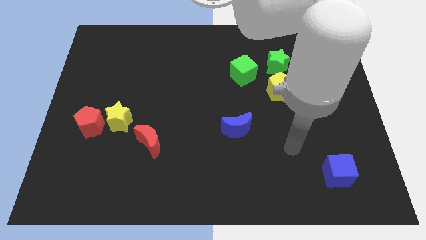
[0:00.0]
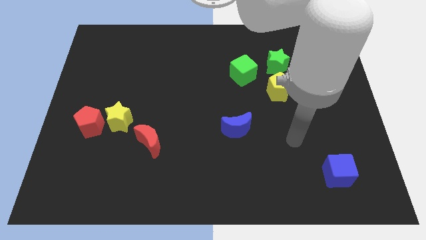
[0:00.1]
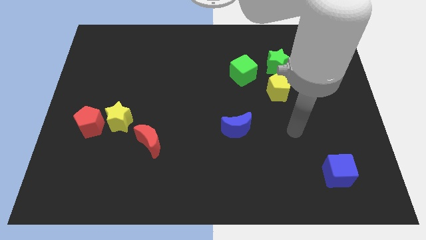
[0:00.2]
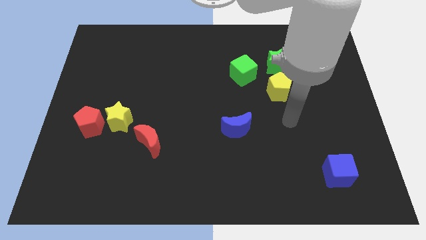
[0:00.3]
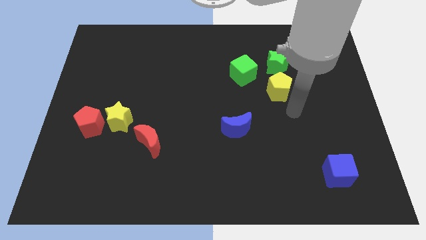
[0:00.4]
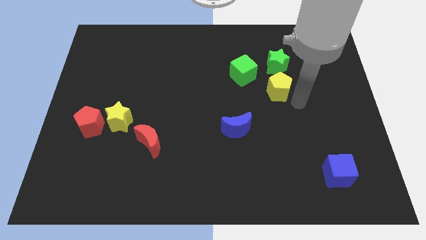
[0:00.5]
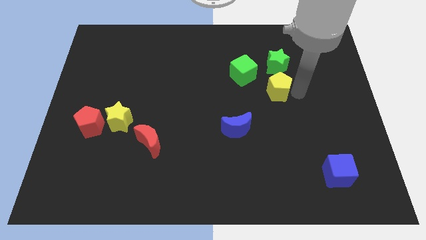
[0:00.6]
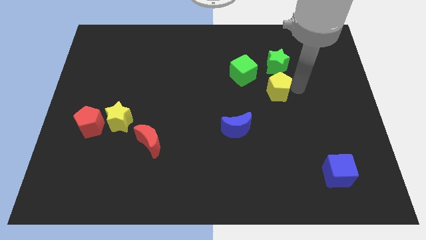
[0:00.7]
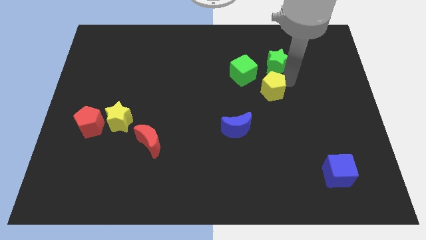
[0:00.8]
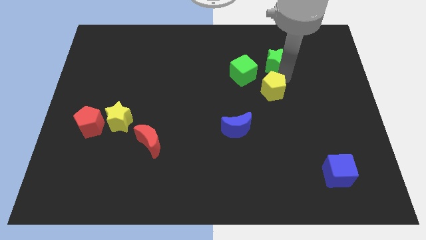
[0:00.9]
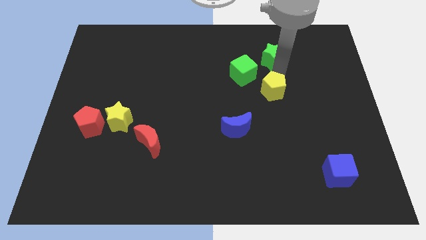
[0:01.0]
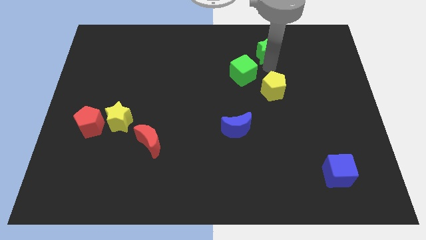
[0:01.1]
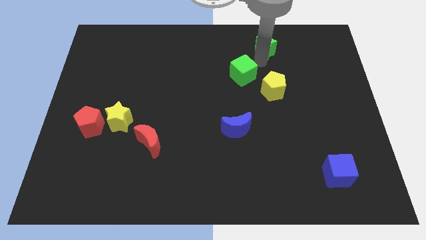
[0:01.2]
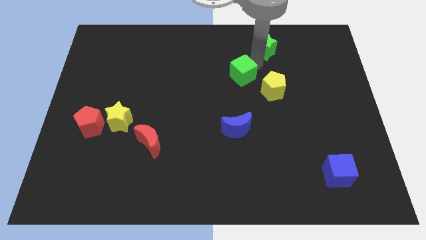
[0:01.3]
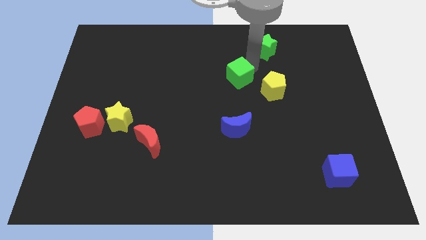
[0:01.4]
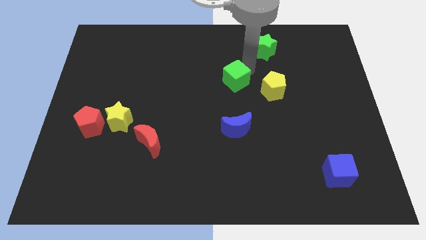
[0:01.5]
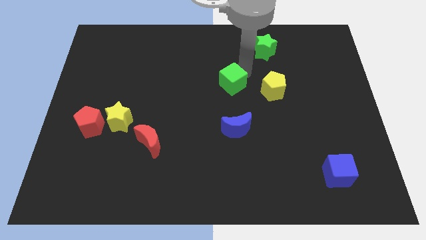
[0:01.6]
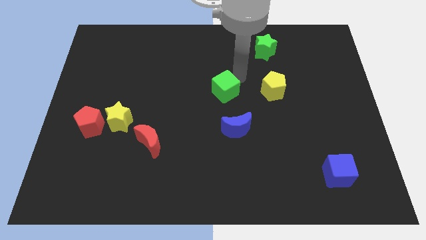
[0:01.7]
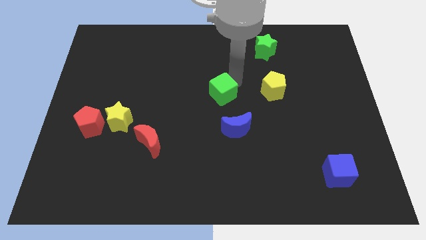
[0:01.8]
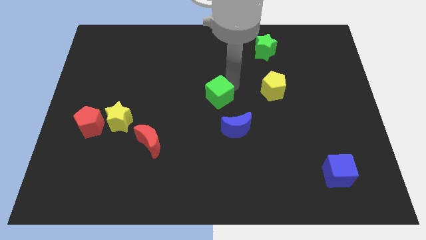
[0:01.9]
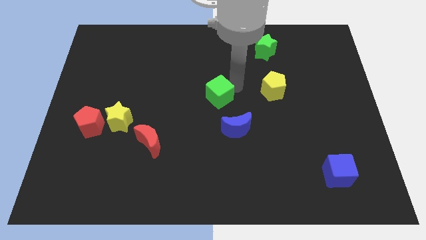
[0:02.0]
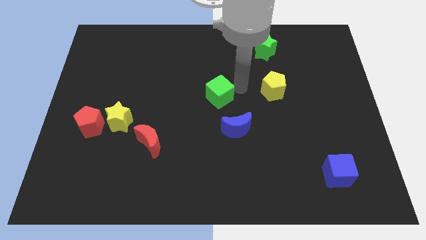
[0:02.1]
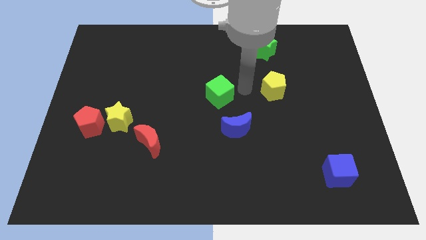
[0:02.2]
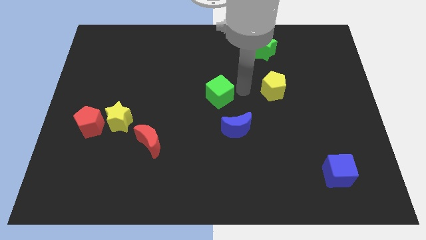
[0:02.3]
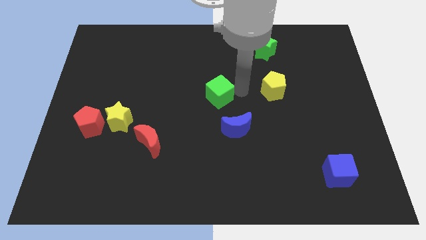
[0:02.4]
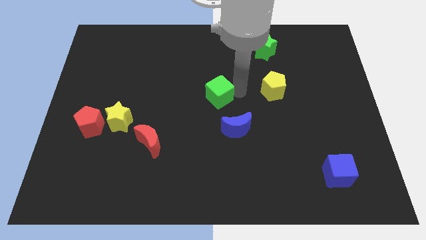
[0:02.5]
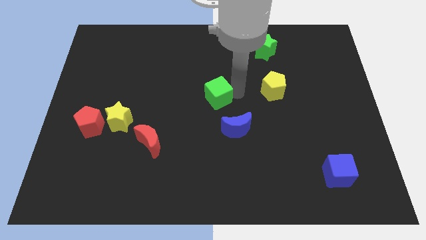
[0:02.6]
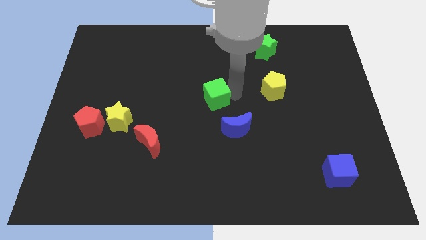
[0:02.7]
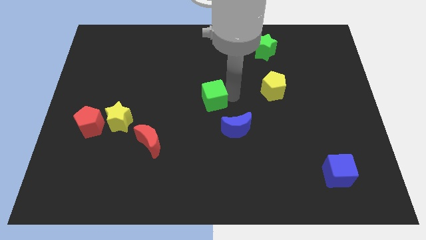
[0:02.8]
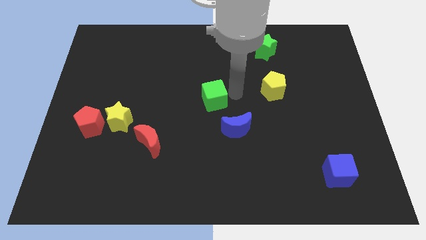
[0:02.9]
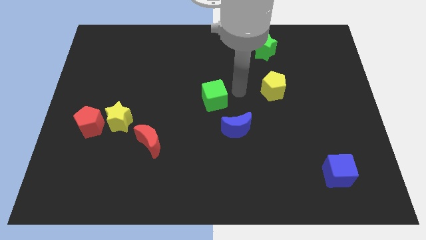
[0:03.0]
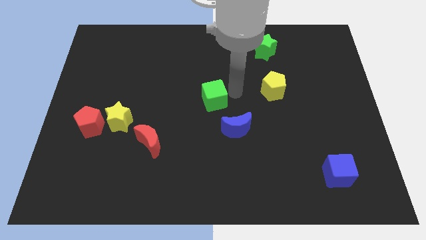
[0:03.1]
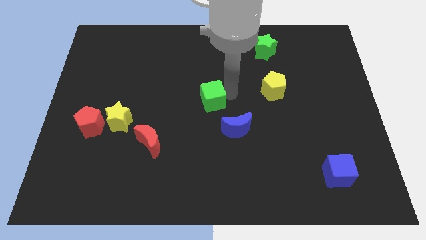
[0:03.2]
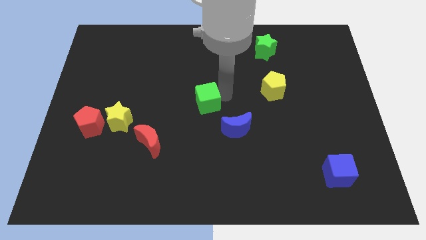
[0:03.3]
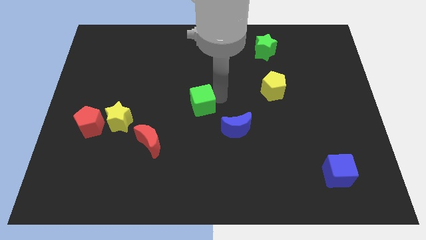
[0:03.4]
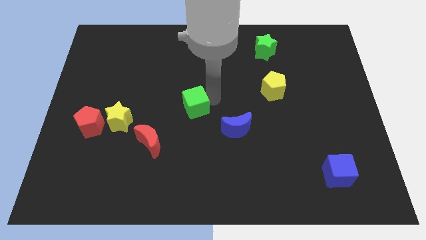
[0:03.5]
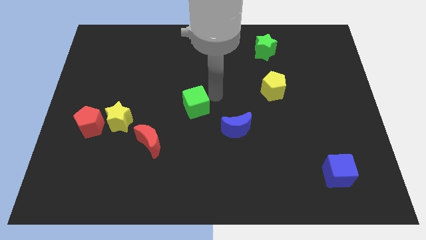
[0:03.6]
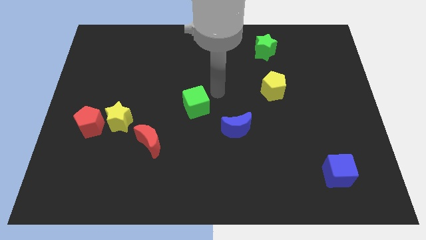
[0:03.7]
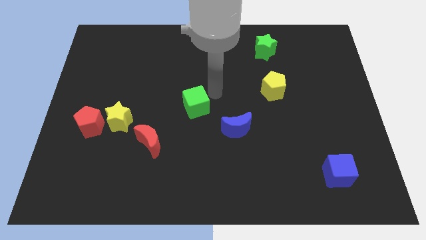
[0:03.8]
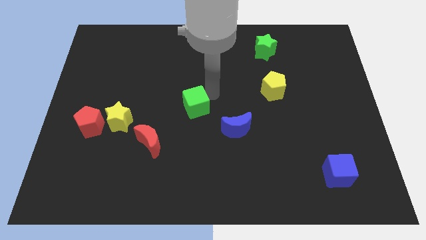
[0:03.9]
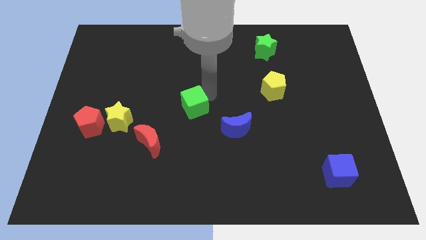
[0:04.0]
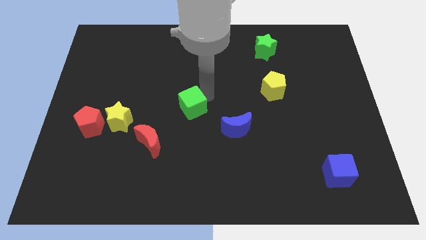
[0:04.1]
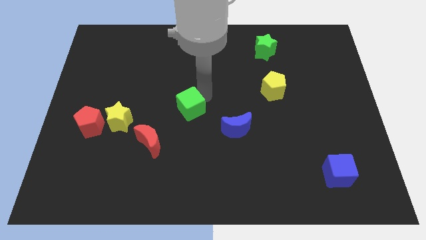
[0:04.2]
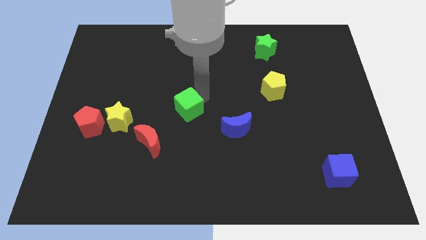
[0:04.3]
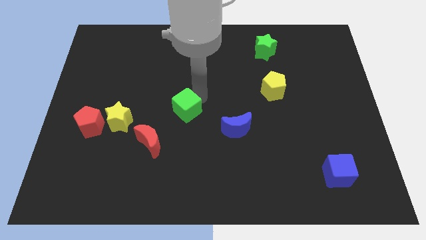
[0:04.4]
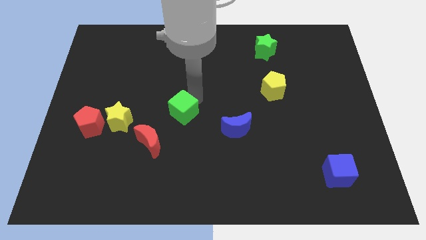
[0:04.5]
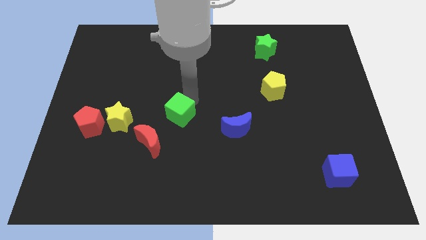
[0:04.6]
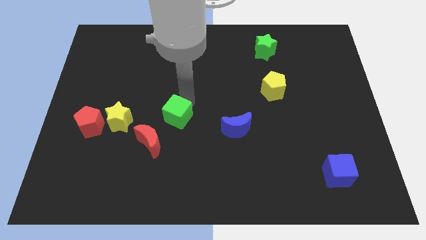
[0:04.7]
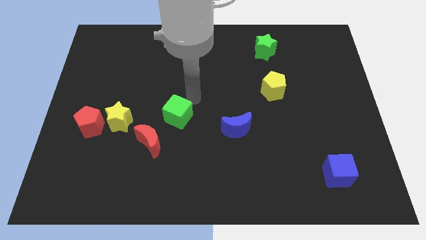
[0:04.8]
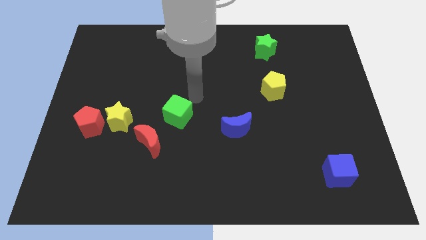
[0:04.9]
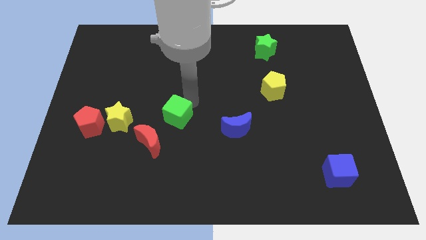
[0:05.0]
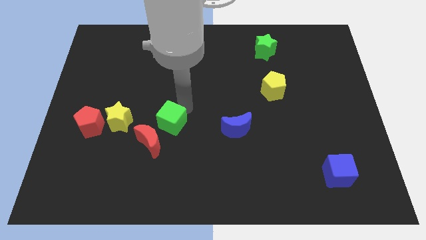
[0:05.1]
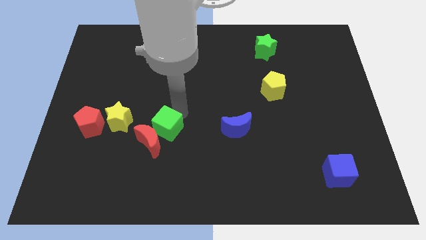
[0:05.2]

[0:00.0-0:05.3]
slide the green cube next to the red moon

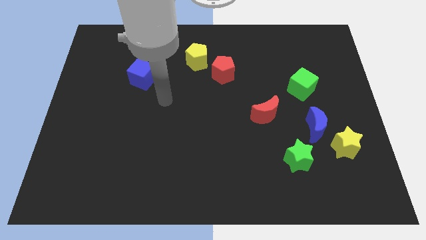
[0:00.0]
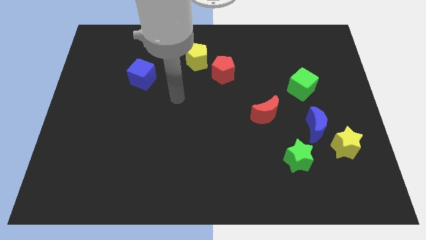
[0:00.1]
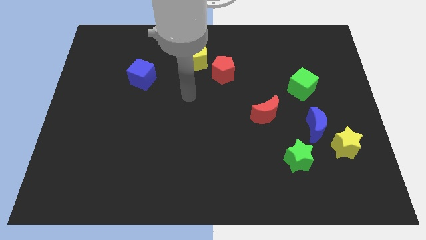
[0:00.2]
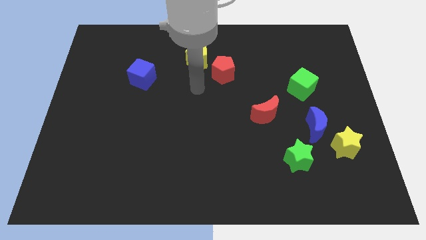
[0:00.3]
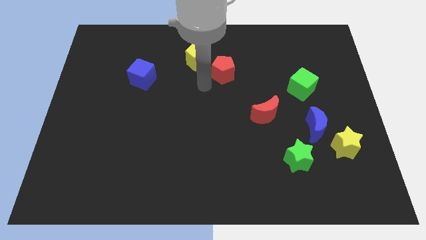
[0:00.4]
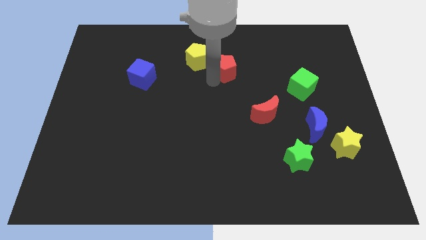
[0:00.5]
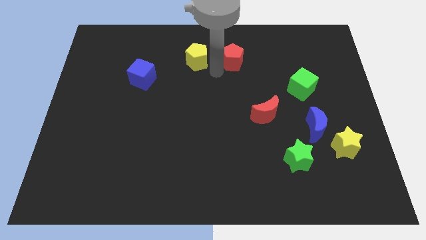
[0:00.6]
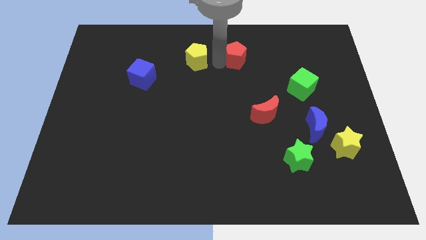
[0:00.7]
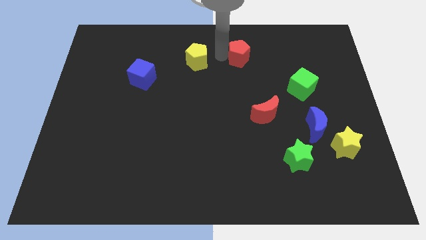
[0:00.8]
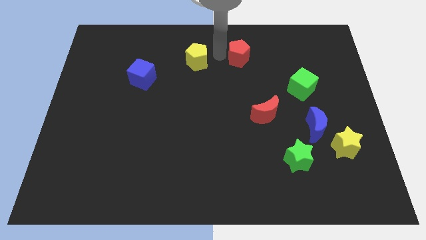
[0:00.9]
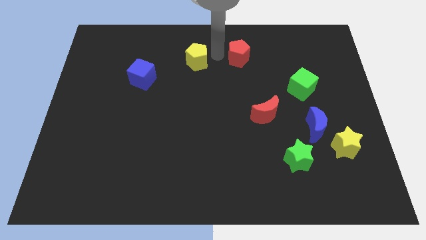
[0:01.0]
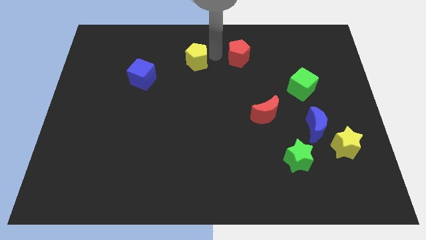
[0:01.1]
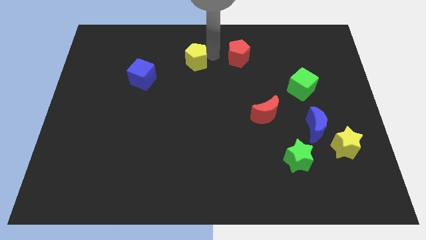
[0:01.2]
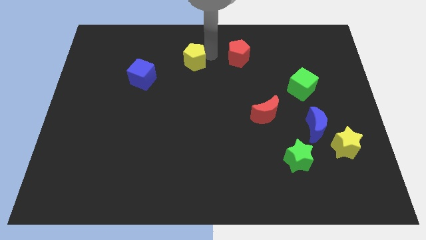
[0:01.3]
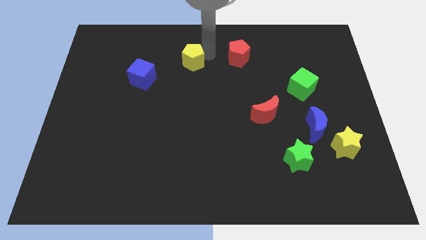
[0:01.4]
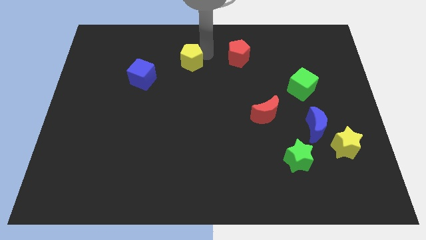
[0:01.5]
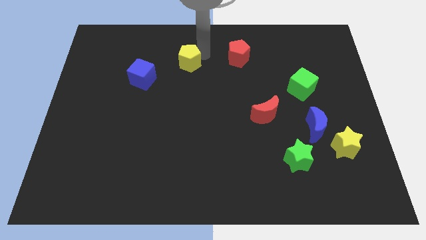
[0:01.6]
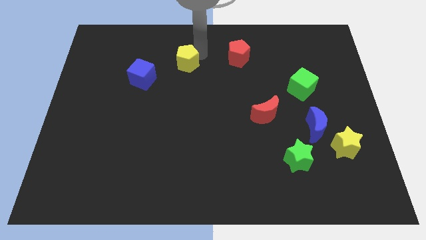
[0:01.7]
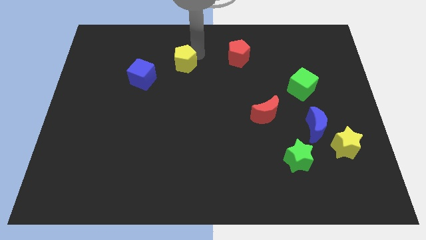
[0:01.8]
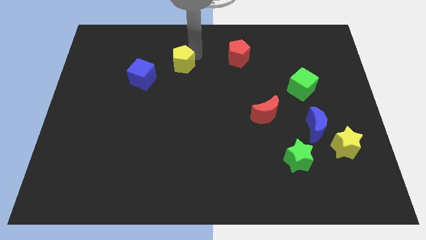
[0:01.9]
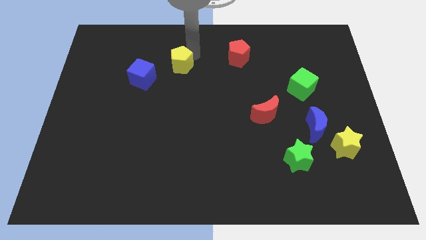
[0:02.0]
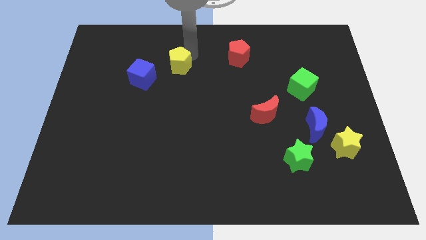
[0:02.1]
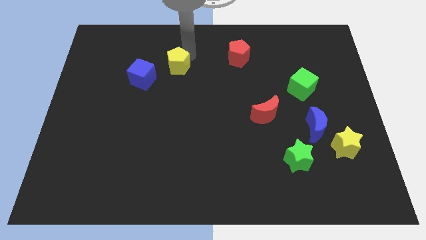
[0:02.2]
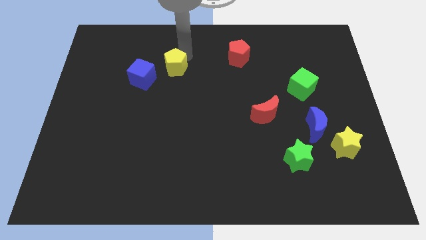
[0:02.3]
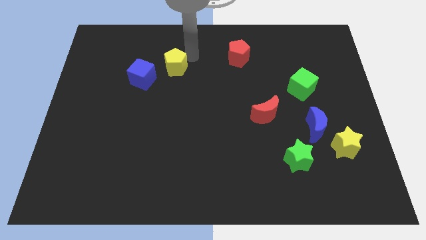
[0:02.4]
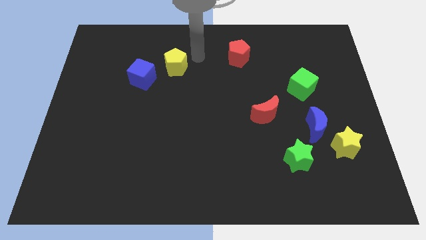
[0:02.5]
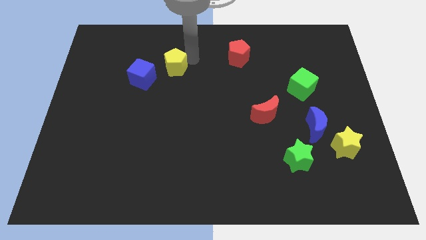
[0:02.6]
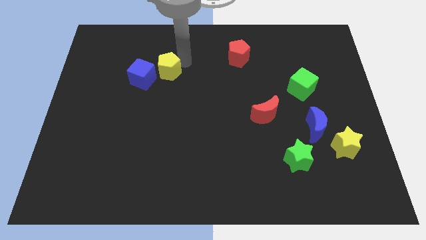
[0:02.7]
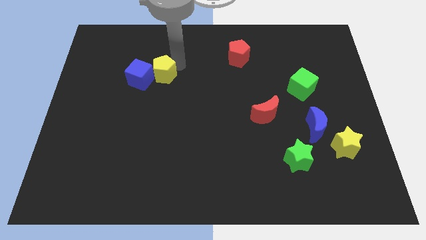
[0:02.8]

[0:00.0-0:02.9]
slide the yellow pentagon next to the blue cube
